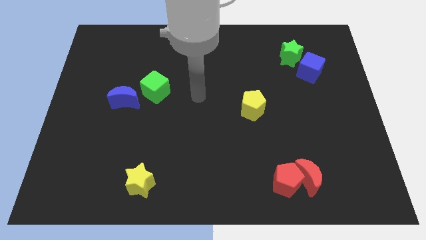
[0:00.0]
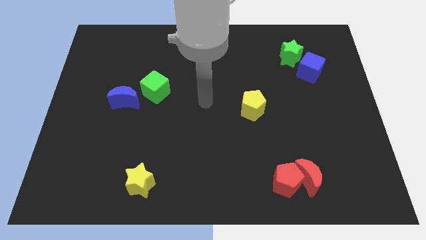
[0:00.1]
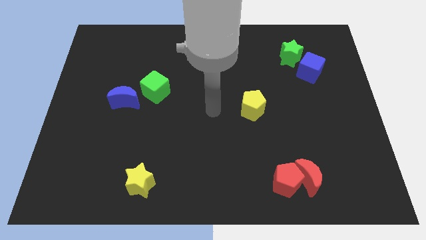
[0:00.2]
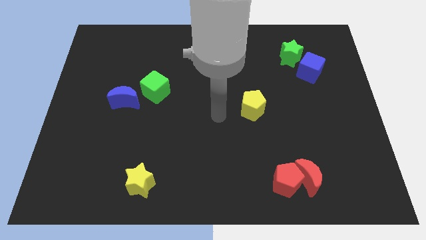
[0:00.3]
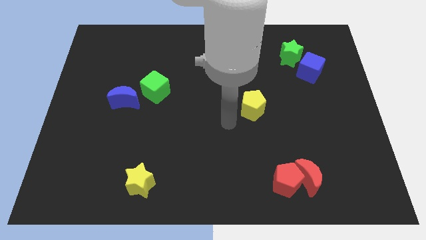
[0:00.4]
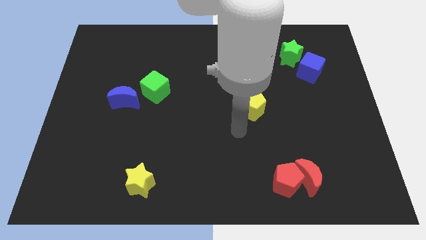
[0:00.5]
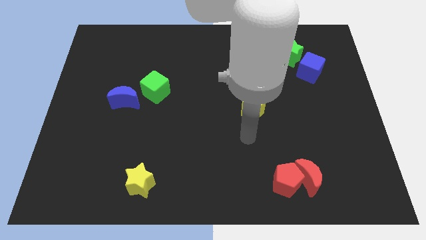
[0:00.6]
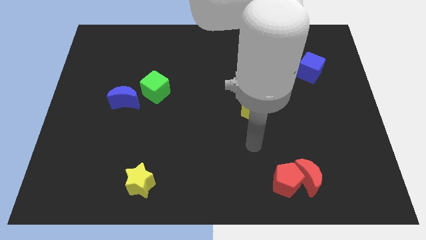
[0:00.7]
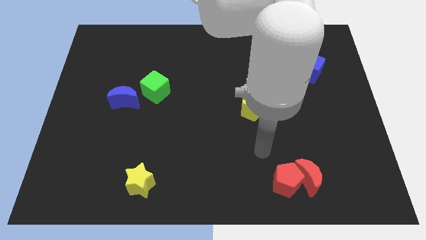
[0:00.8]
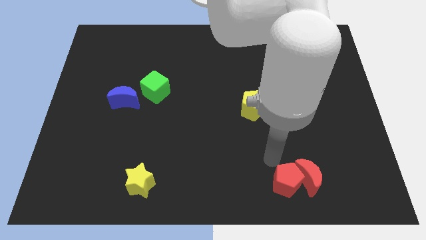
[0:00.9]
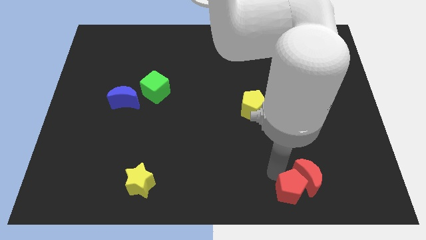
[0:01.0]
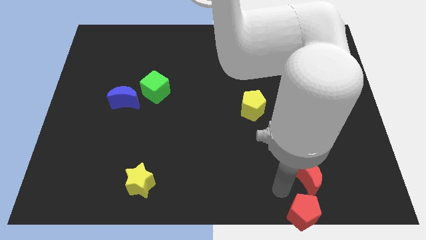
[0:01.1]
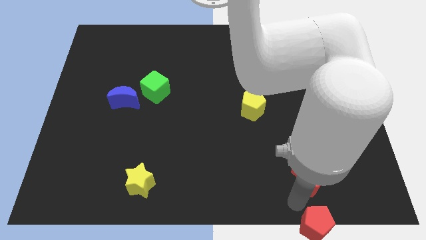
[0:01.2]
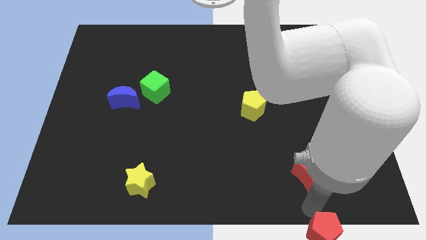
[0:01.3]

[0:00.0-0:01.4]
separate the red moon from the red pentagon

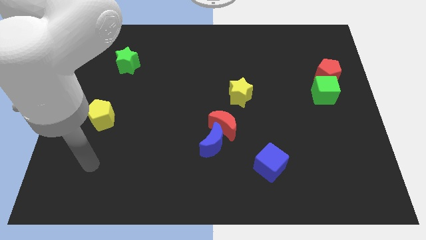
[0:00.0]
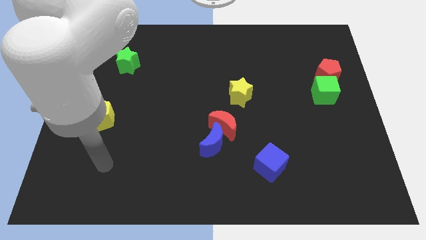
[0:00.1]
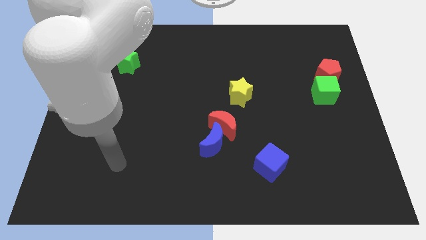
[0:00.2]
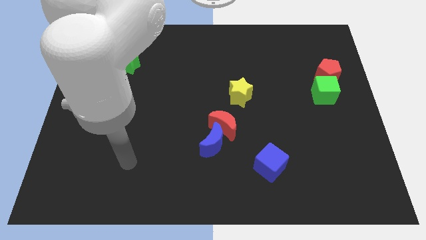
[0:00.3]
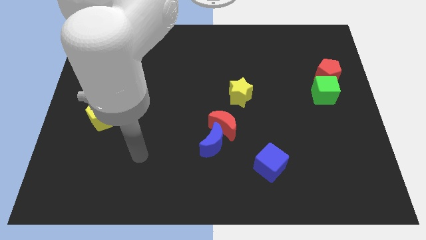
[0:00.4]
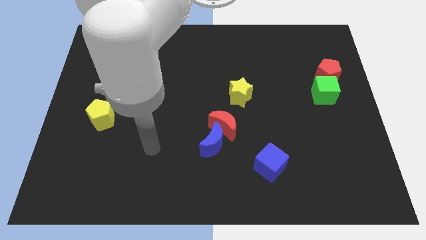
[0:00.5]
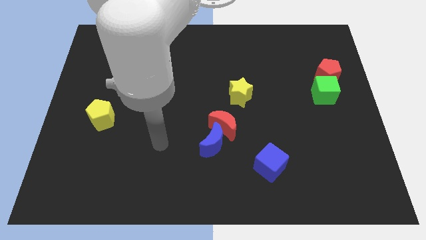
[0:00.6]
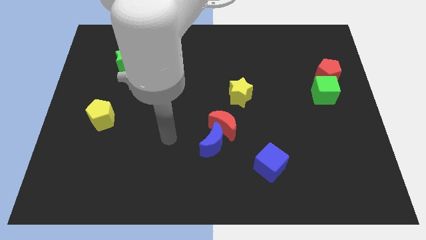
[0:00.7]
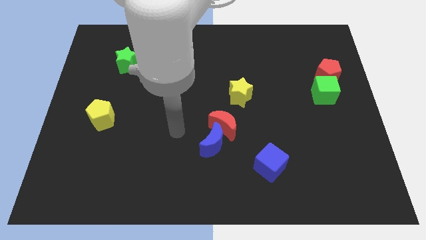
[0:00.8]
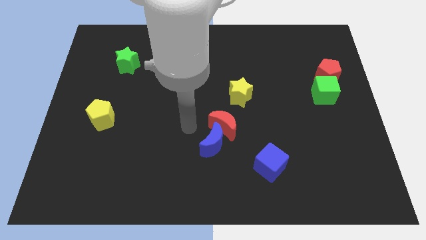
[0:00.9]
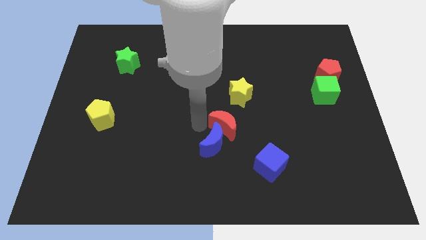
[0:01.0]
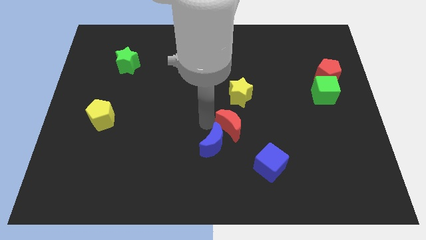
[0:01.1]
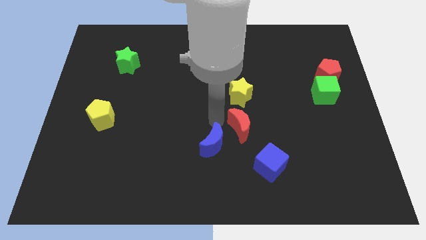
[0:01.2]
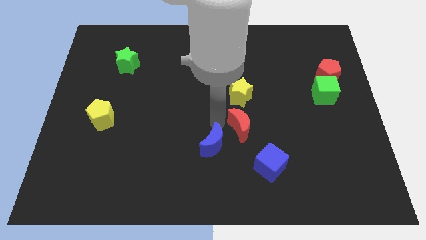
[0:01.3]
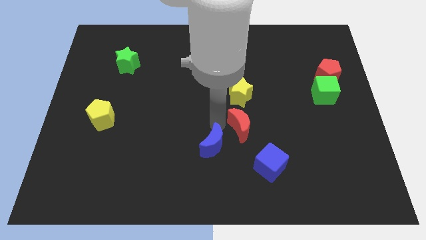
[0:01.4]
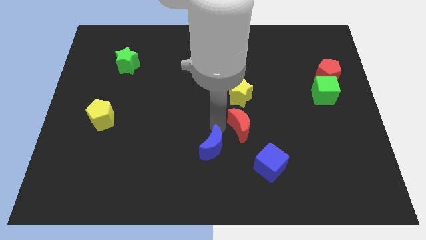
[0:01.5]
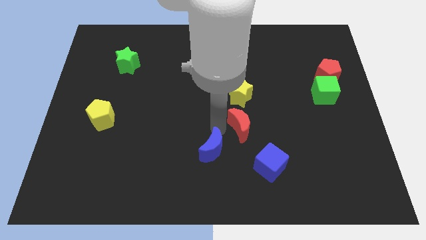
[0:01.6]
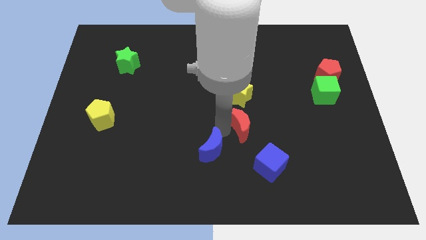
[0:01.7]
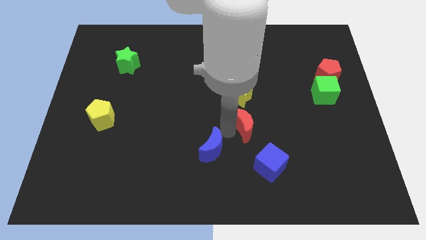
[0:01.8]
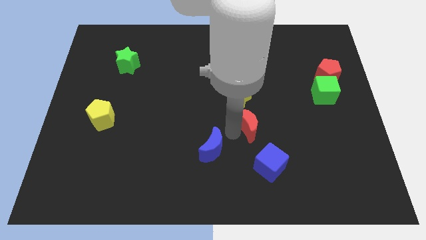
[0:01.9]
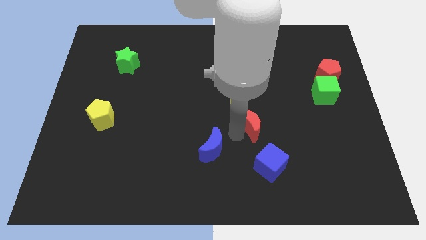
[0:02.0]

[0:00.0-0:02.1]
pull the blue moon apart from the red moon

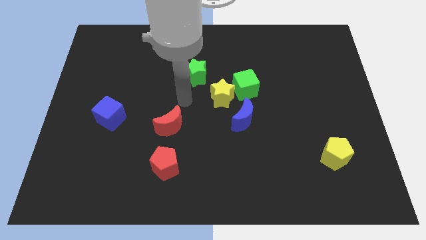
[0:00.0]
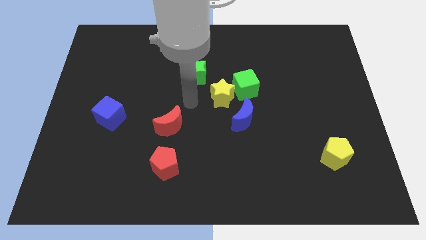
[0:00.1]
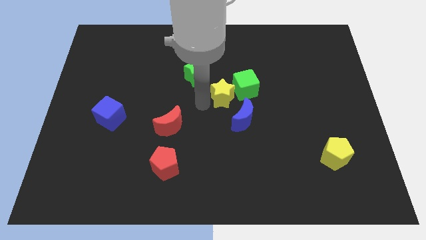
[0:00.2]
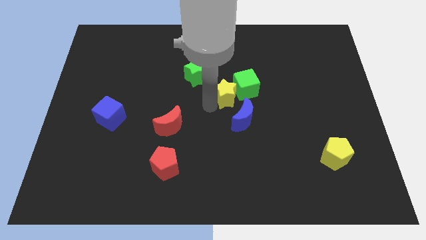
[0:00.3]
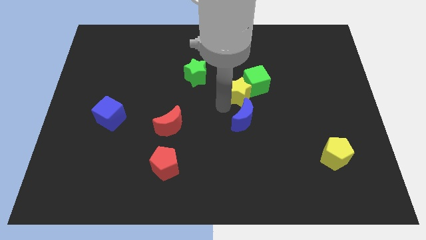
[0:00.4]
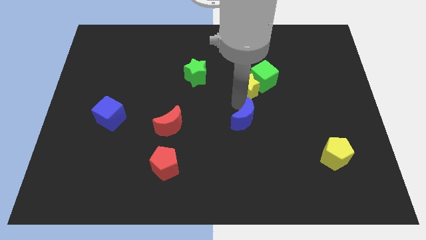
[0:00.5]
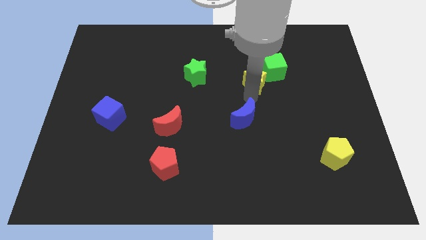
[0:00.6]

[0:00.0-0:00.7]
pull the green cube apart from the yellow star and blue moon

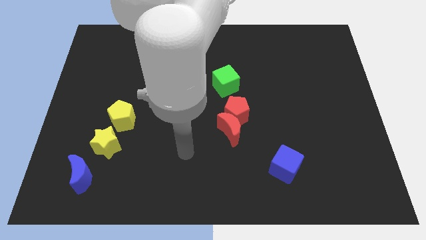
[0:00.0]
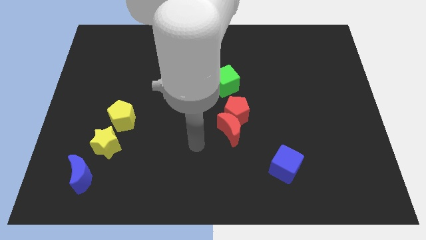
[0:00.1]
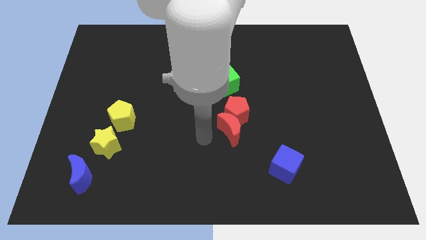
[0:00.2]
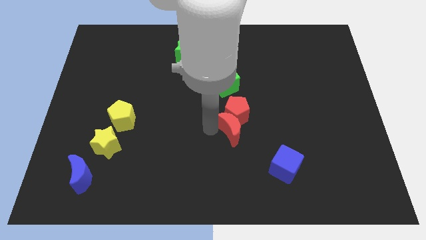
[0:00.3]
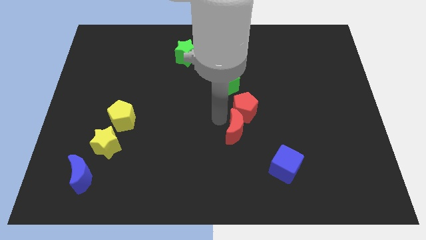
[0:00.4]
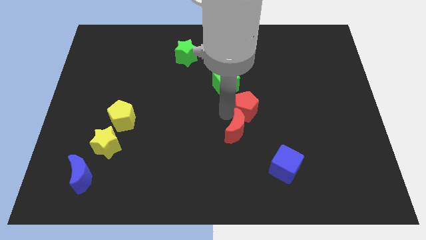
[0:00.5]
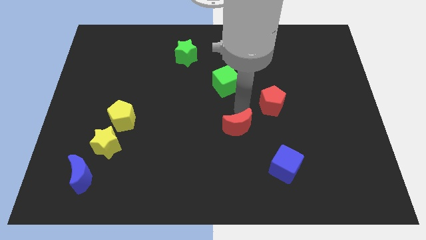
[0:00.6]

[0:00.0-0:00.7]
move the red moon away from the red pentagon

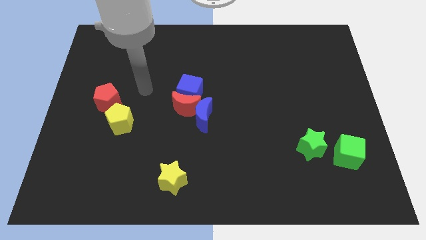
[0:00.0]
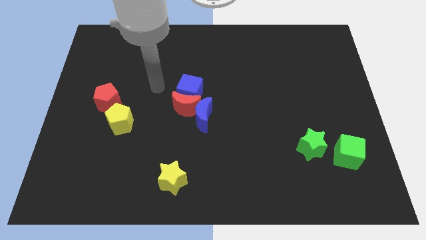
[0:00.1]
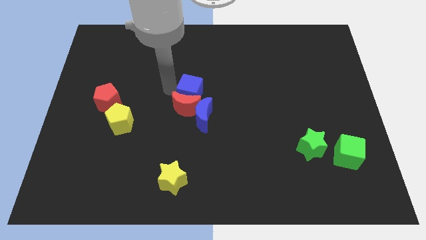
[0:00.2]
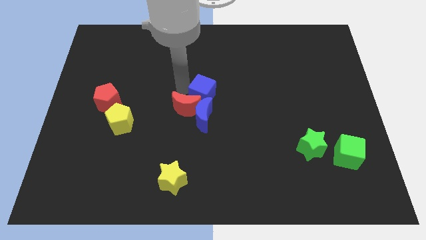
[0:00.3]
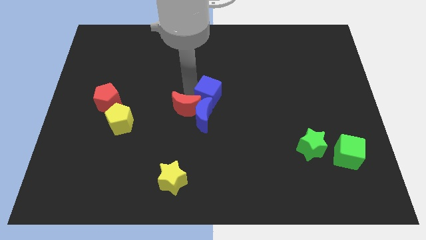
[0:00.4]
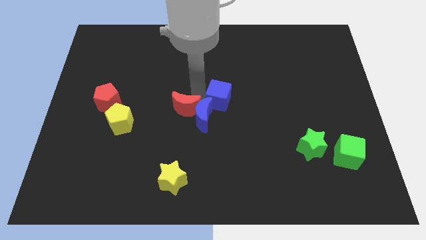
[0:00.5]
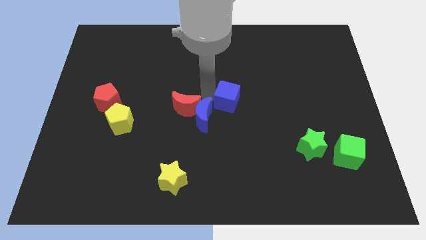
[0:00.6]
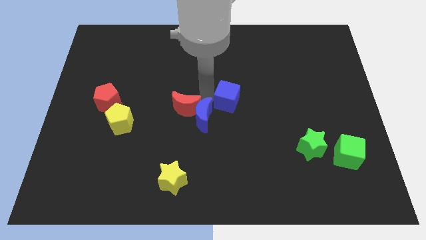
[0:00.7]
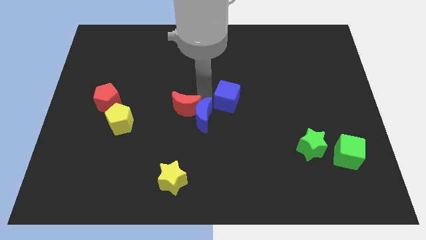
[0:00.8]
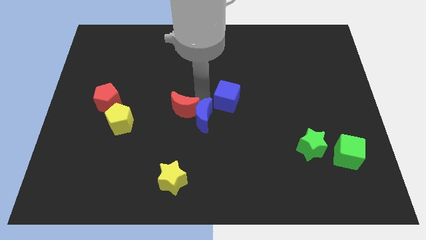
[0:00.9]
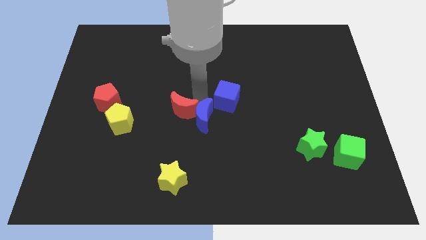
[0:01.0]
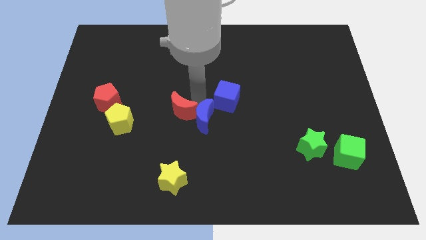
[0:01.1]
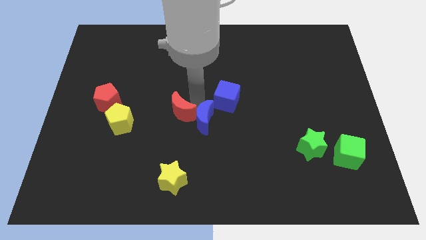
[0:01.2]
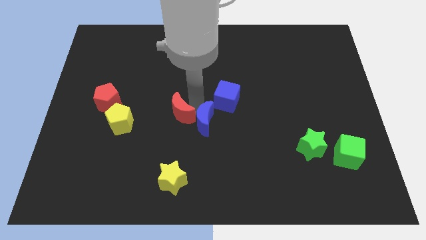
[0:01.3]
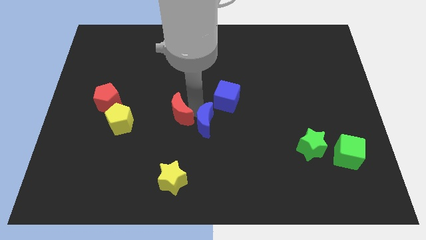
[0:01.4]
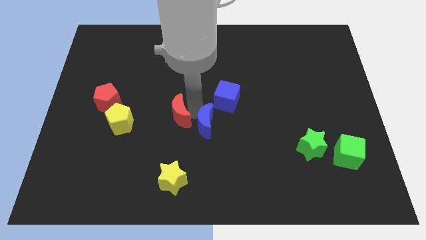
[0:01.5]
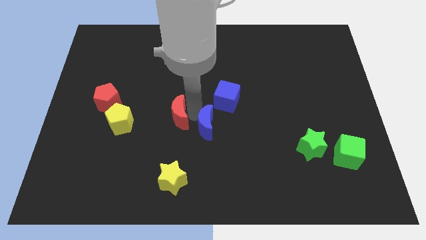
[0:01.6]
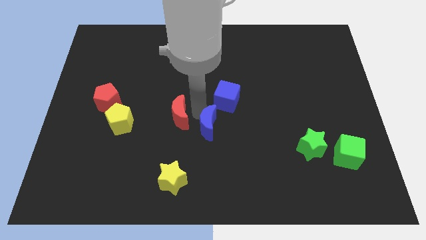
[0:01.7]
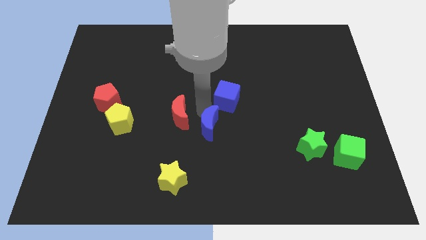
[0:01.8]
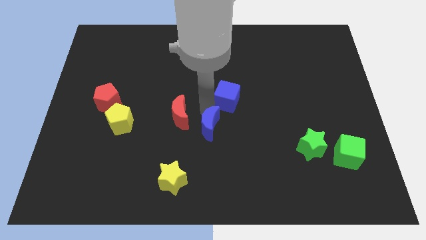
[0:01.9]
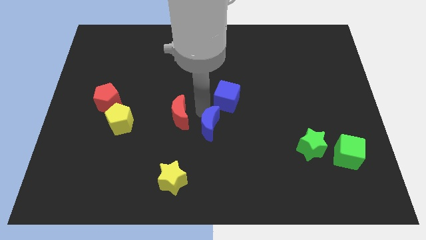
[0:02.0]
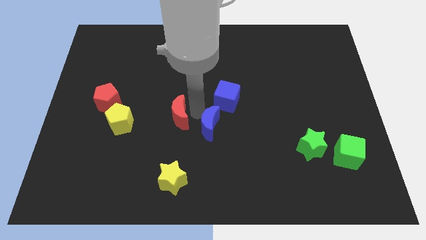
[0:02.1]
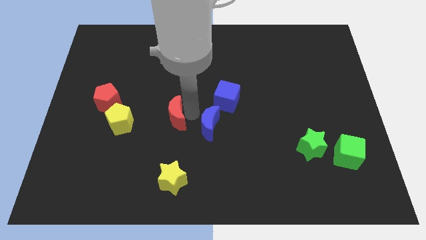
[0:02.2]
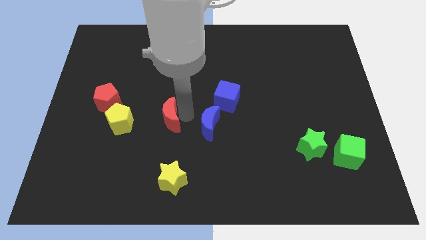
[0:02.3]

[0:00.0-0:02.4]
move the red moon away from the blue cube and blue moon

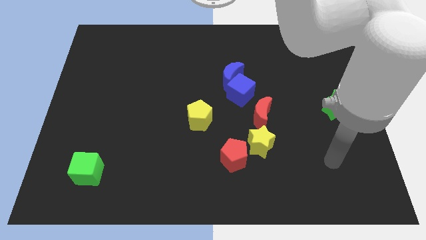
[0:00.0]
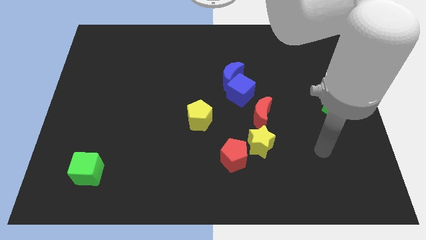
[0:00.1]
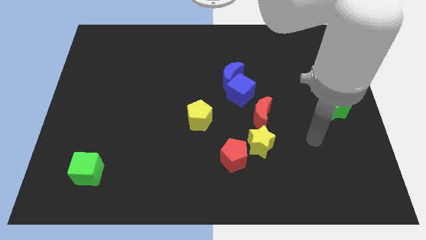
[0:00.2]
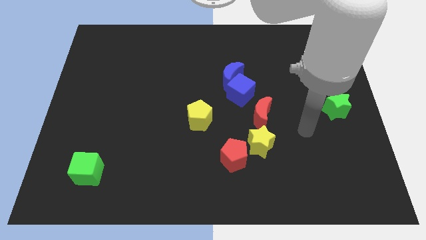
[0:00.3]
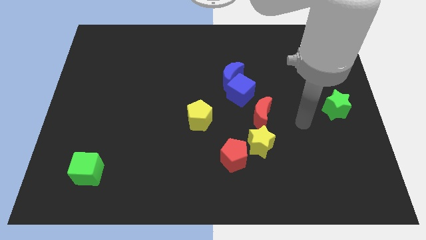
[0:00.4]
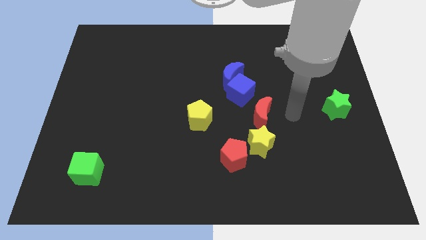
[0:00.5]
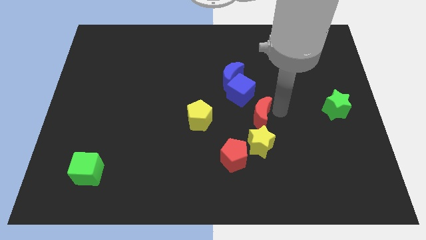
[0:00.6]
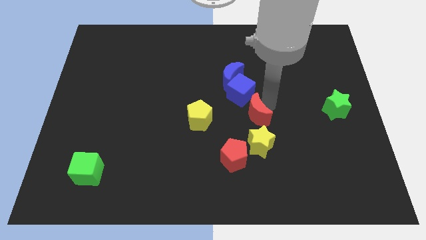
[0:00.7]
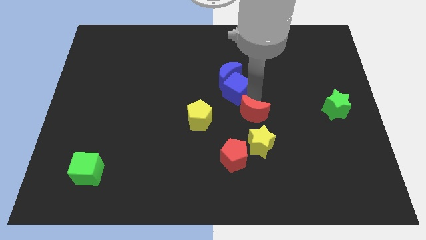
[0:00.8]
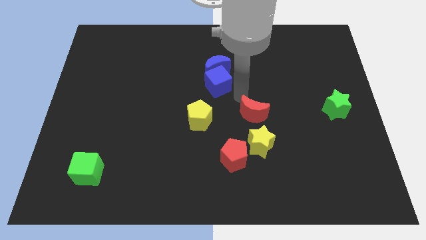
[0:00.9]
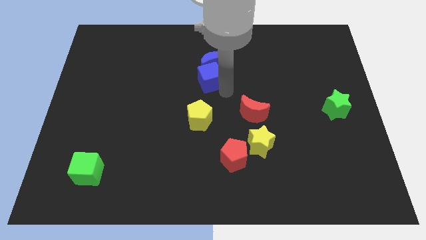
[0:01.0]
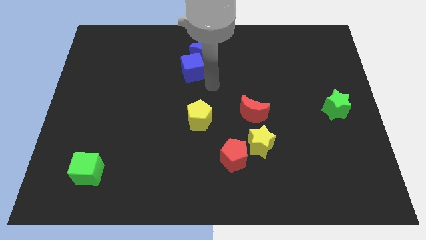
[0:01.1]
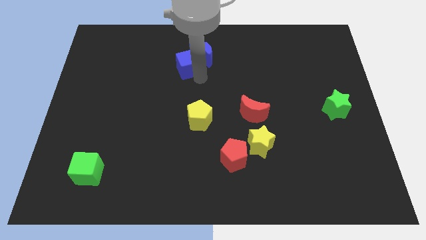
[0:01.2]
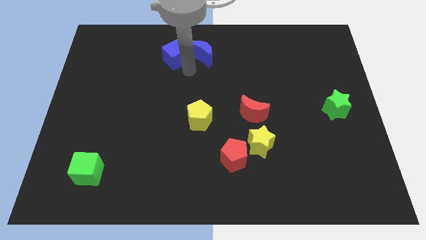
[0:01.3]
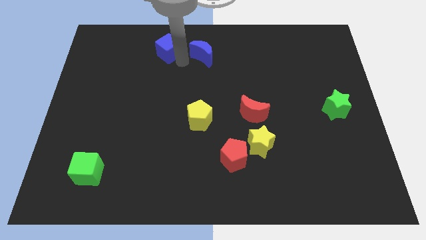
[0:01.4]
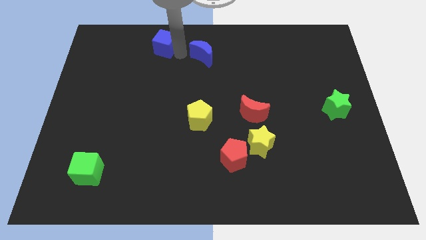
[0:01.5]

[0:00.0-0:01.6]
separate the blue moon from the blue cube

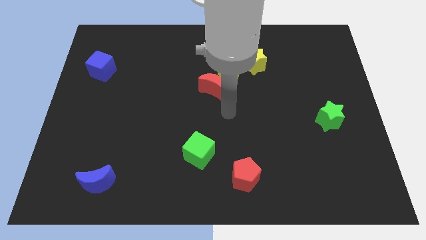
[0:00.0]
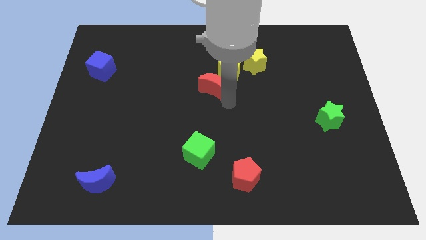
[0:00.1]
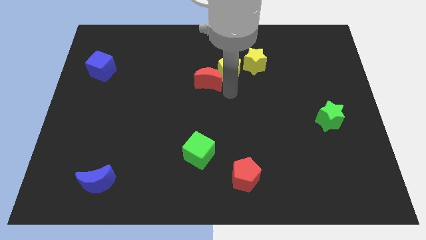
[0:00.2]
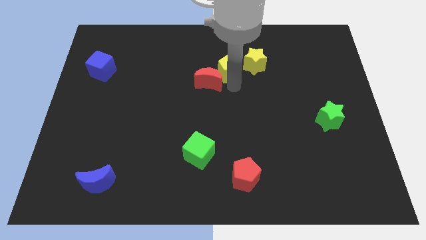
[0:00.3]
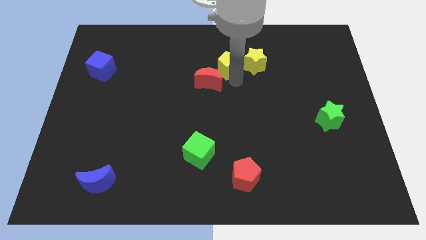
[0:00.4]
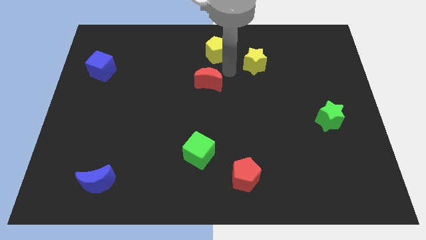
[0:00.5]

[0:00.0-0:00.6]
move the red moon away from the yellow pentagon
